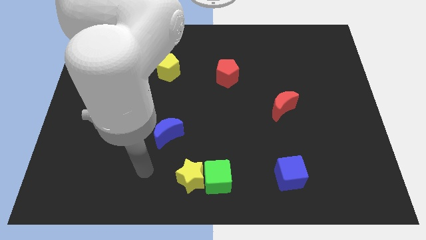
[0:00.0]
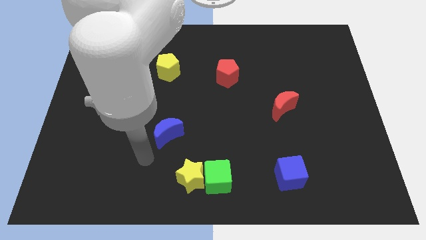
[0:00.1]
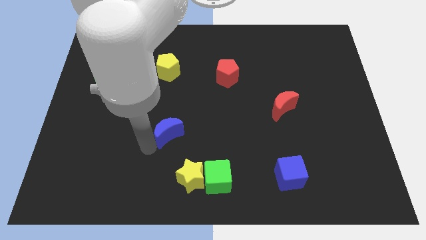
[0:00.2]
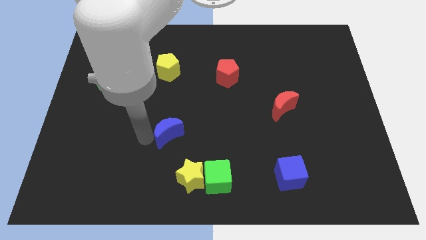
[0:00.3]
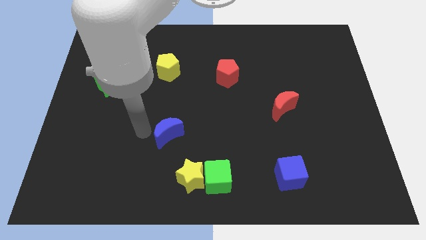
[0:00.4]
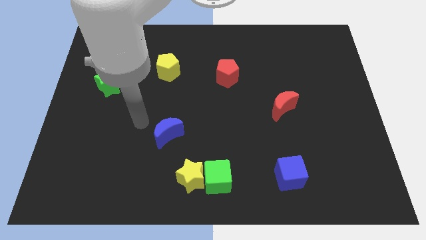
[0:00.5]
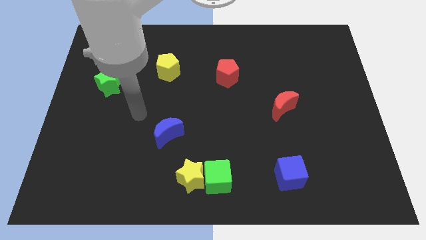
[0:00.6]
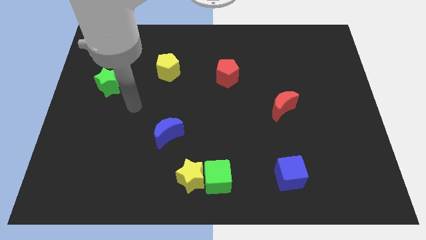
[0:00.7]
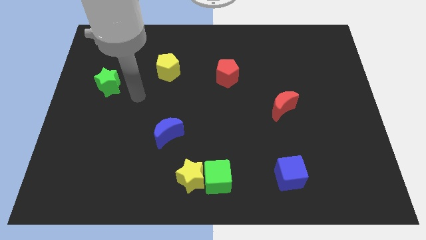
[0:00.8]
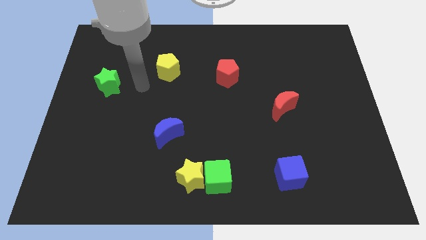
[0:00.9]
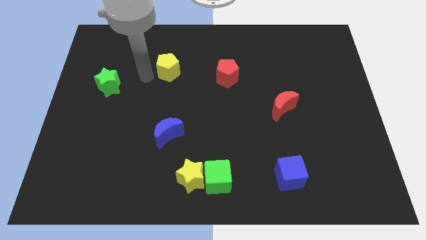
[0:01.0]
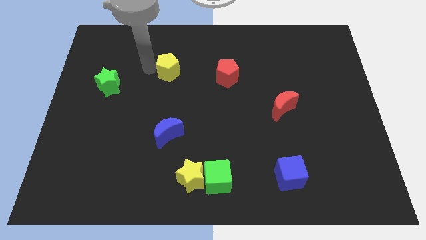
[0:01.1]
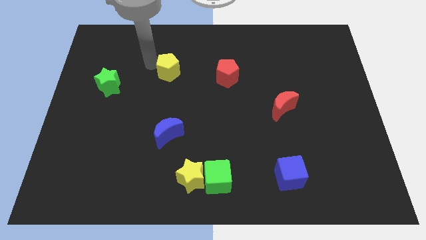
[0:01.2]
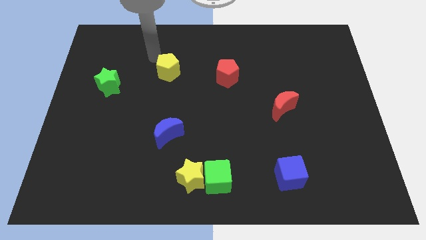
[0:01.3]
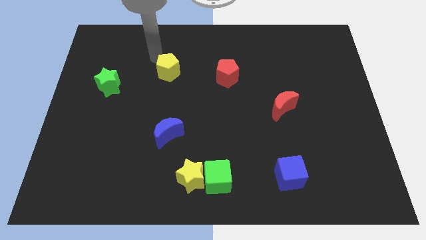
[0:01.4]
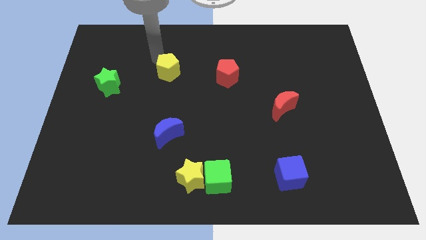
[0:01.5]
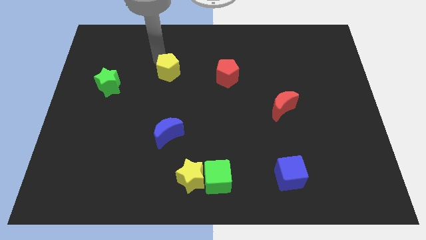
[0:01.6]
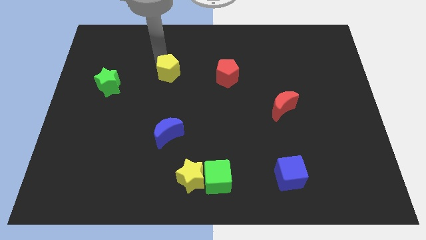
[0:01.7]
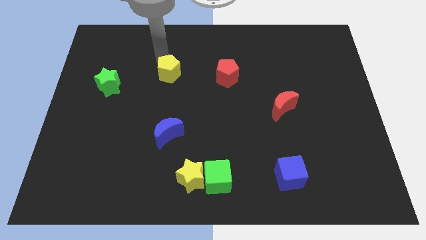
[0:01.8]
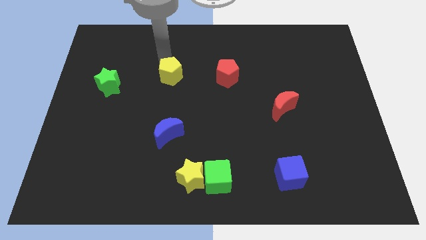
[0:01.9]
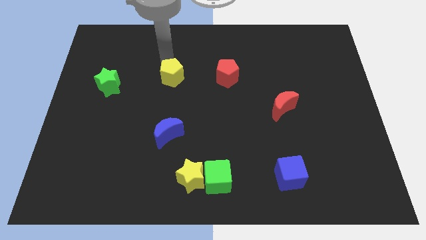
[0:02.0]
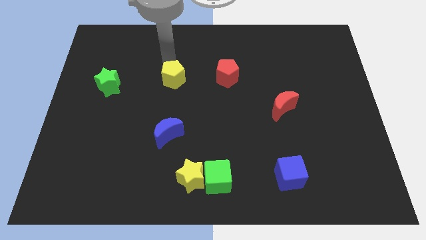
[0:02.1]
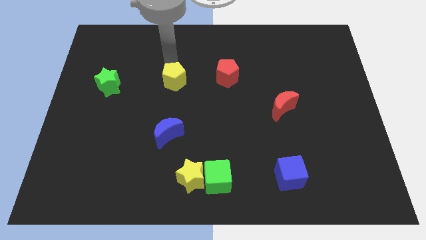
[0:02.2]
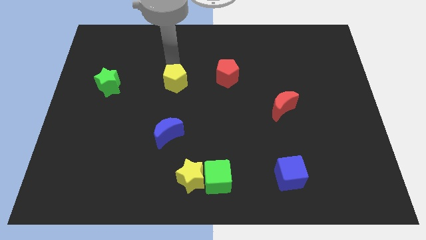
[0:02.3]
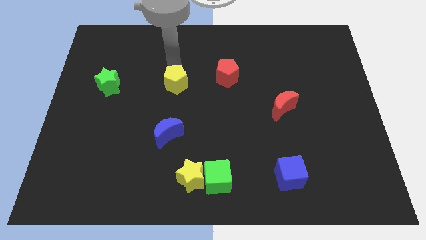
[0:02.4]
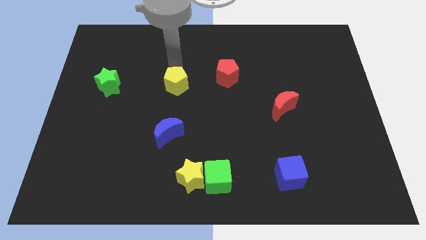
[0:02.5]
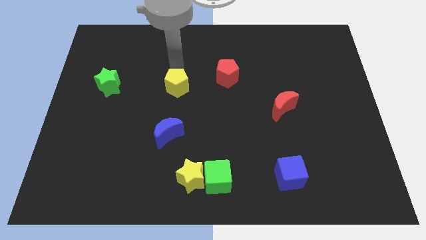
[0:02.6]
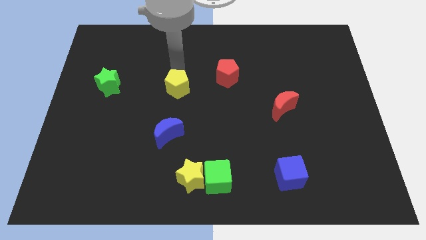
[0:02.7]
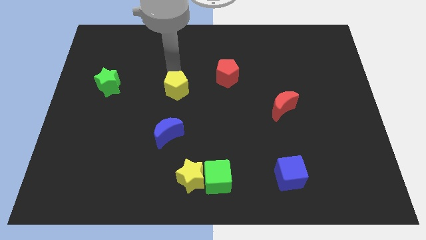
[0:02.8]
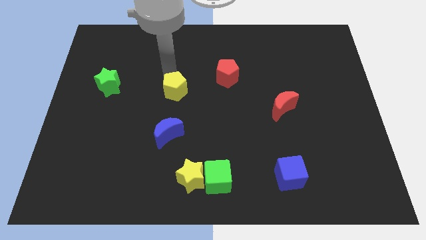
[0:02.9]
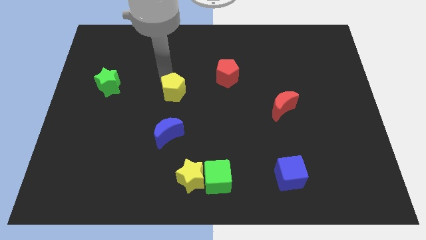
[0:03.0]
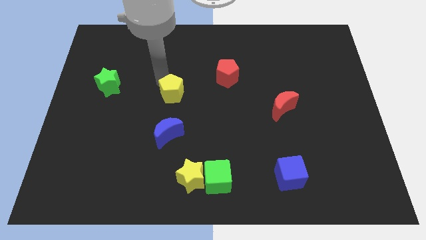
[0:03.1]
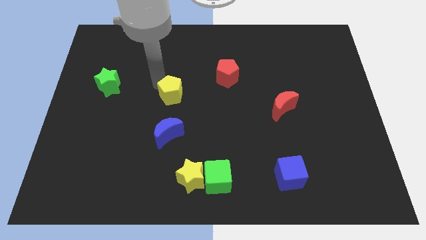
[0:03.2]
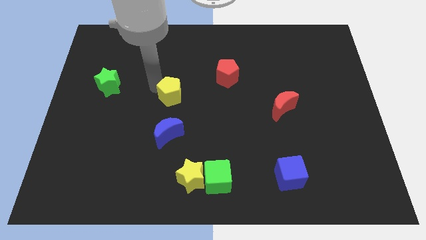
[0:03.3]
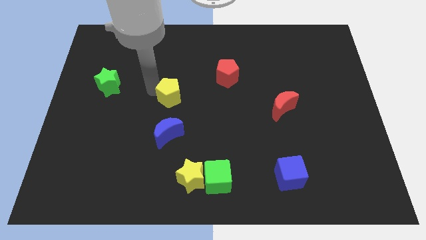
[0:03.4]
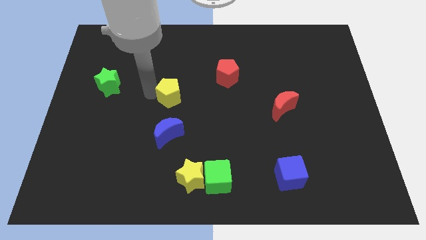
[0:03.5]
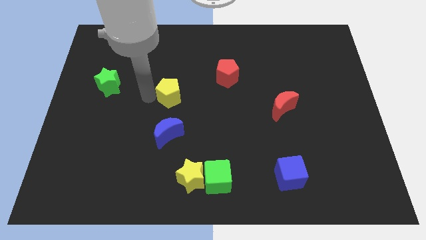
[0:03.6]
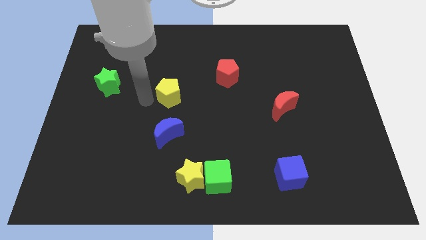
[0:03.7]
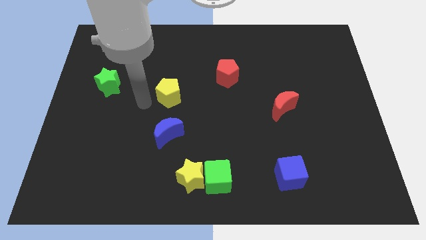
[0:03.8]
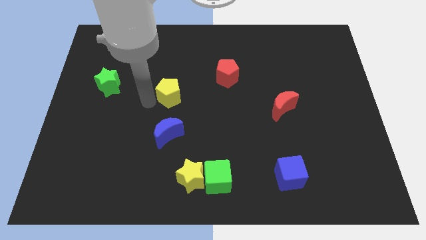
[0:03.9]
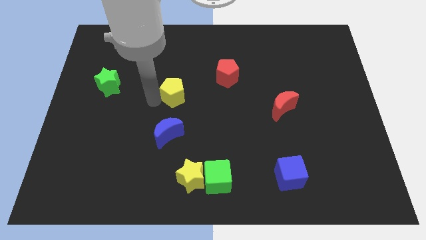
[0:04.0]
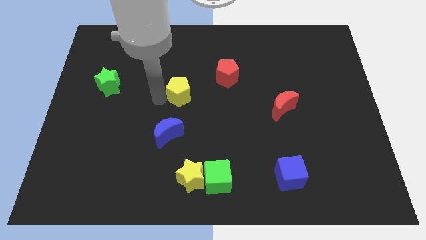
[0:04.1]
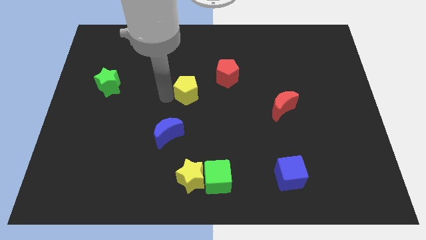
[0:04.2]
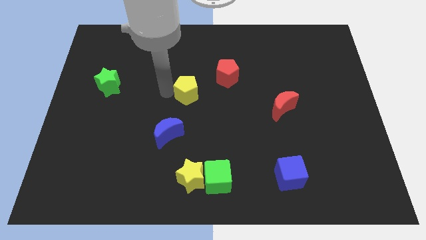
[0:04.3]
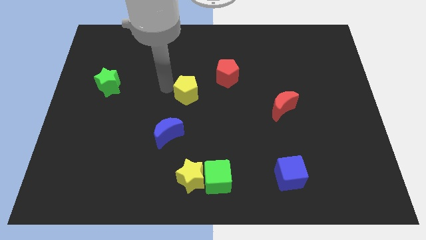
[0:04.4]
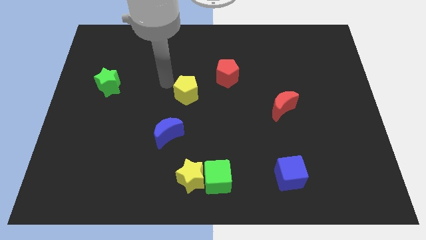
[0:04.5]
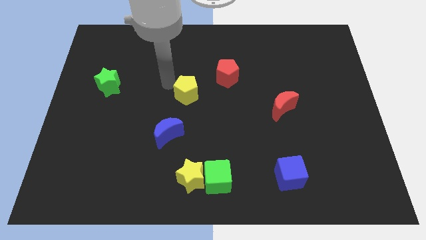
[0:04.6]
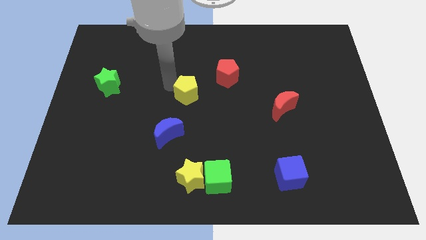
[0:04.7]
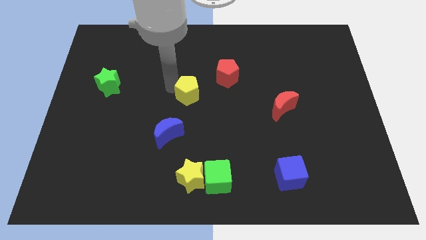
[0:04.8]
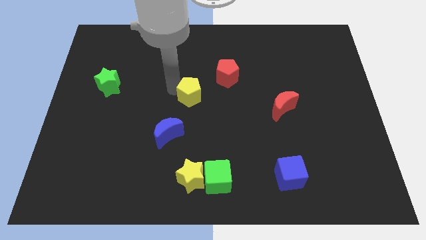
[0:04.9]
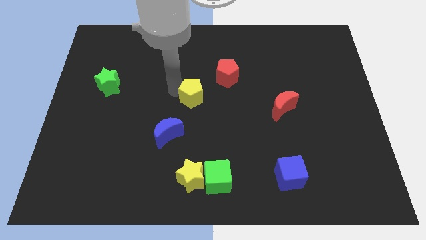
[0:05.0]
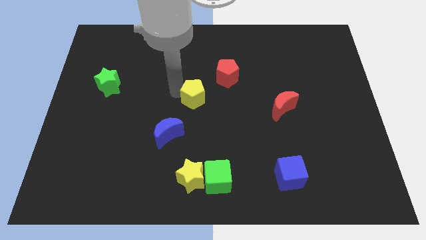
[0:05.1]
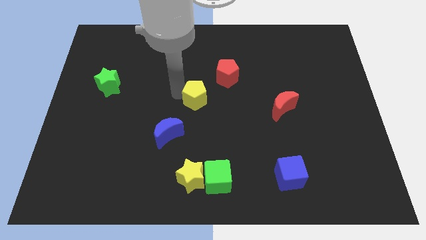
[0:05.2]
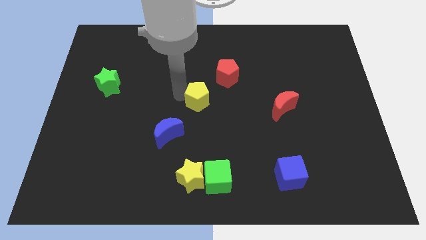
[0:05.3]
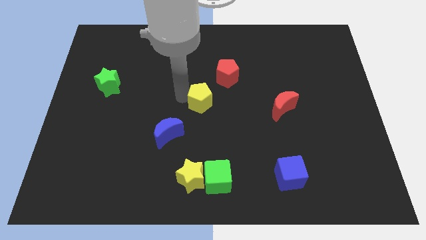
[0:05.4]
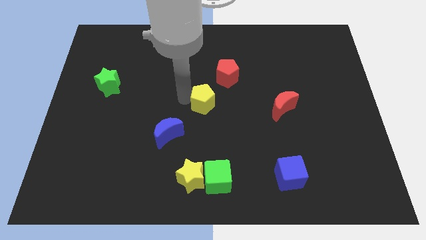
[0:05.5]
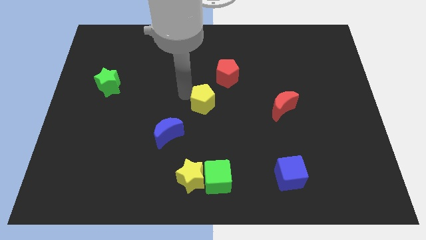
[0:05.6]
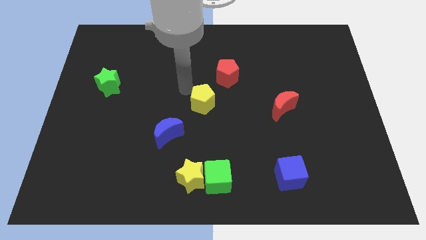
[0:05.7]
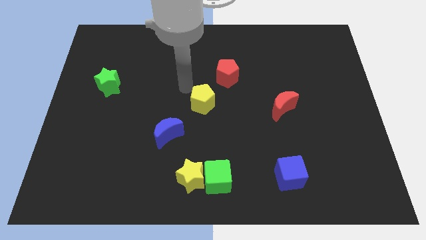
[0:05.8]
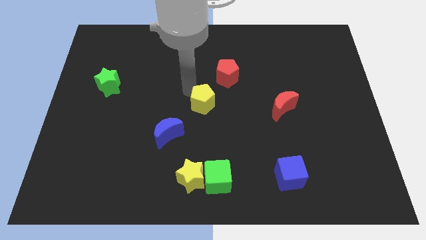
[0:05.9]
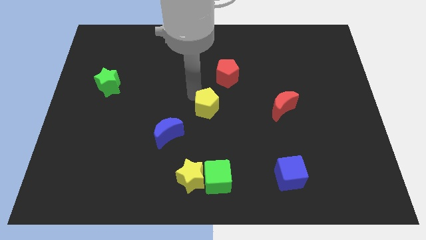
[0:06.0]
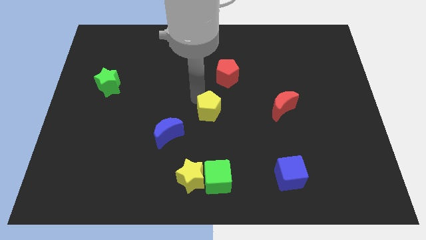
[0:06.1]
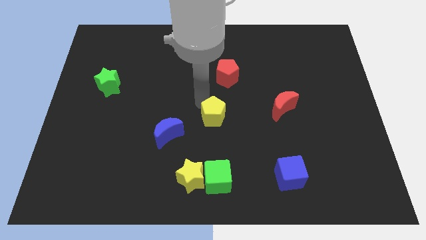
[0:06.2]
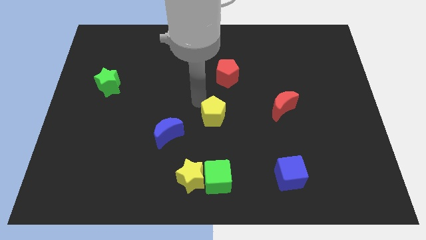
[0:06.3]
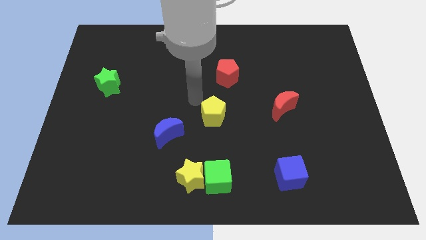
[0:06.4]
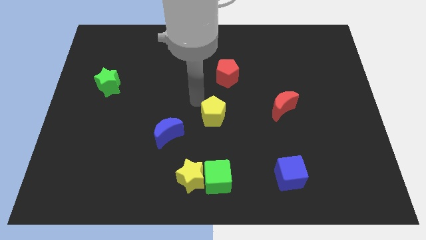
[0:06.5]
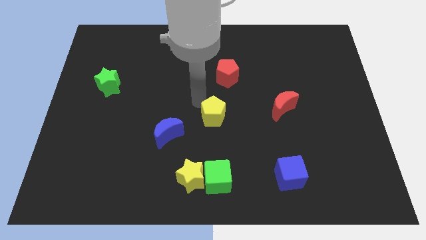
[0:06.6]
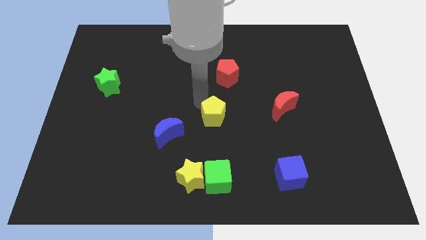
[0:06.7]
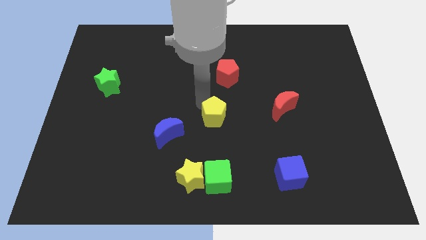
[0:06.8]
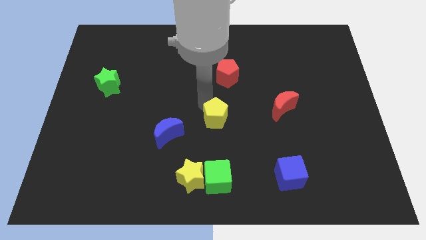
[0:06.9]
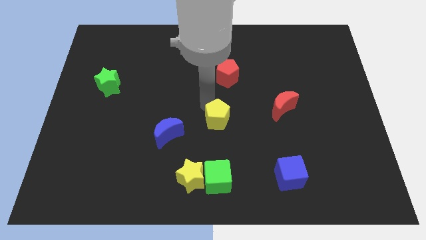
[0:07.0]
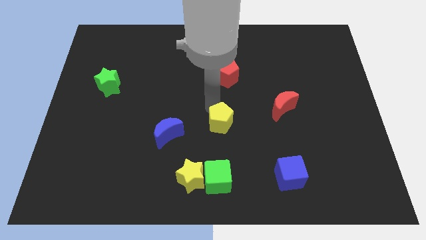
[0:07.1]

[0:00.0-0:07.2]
move the yellow pentagon down and right diagonally

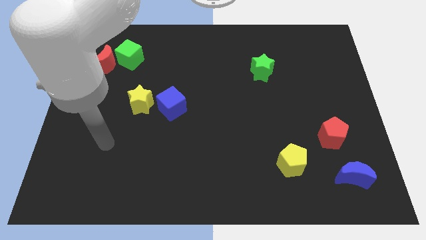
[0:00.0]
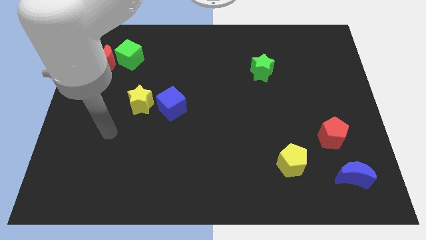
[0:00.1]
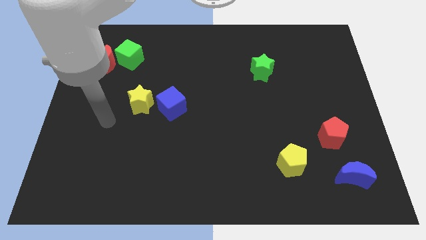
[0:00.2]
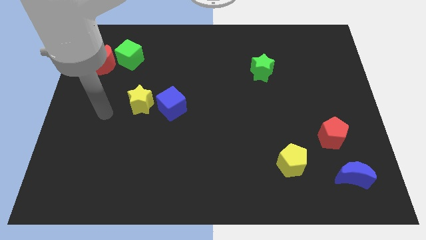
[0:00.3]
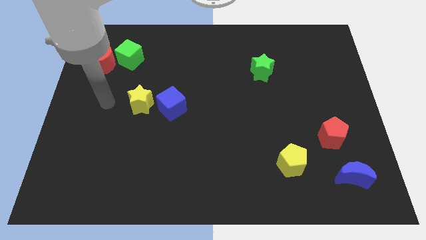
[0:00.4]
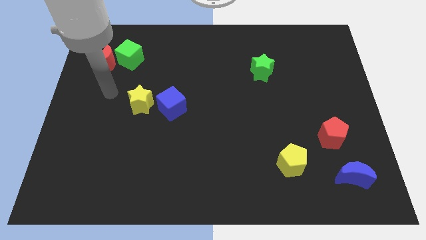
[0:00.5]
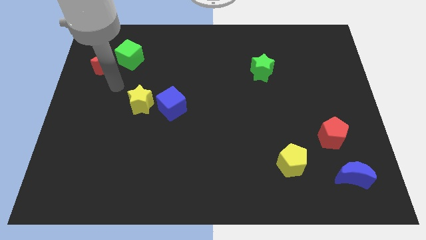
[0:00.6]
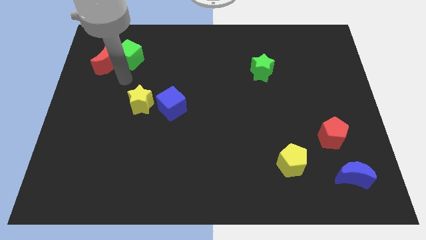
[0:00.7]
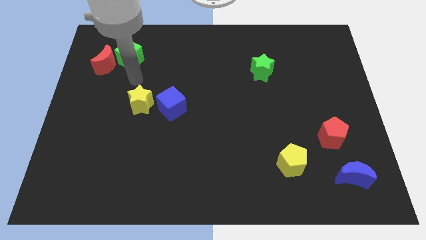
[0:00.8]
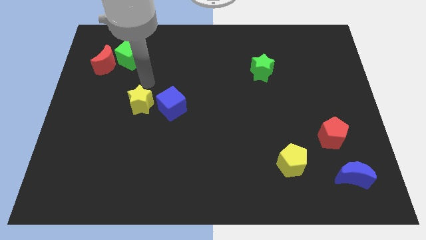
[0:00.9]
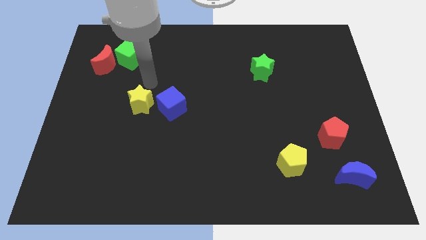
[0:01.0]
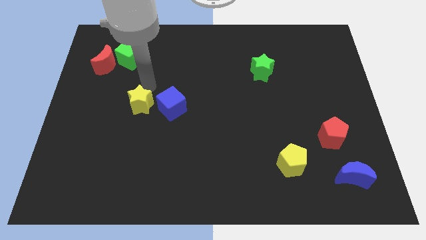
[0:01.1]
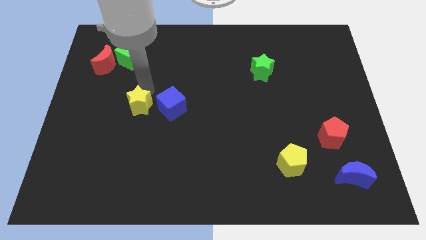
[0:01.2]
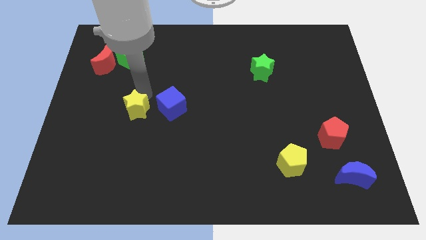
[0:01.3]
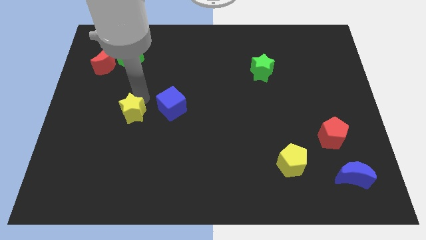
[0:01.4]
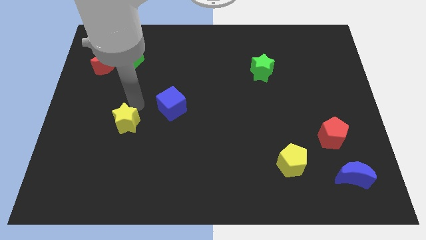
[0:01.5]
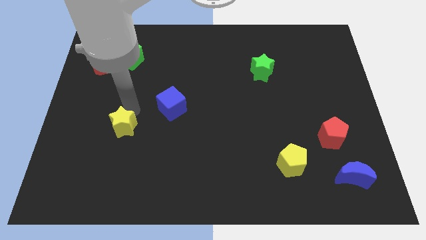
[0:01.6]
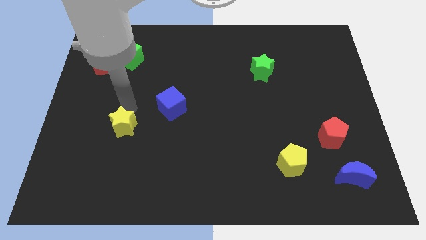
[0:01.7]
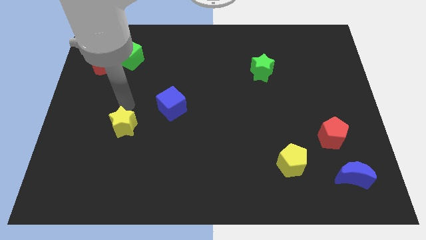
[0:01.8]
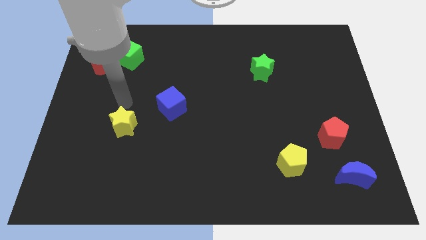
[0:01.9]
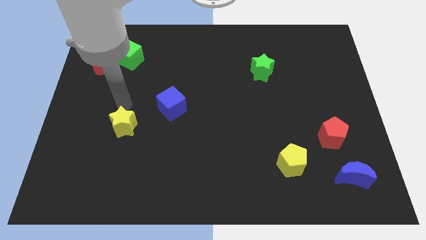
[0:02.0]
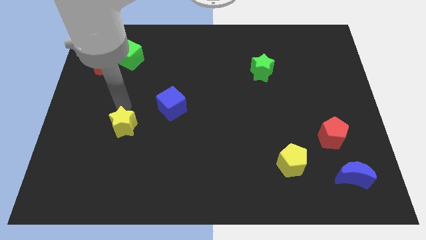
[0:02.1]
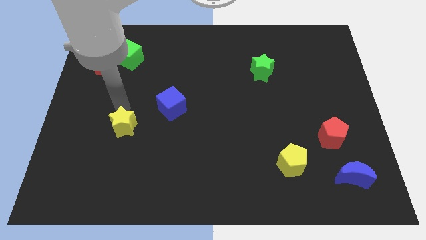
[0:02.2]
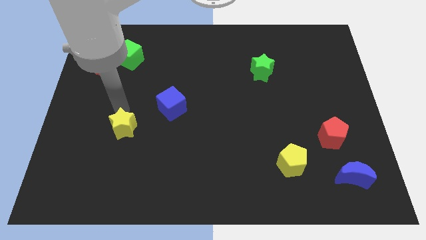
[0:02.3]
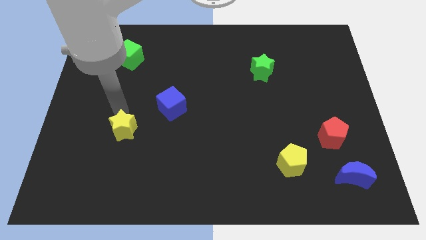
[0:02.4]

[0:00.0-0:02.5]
push the yellow star a bit downwards
